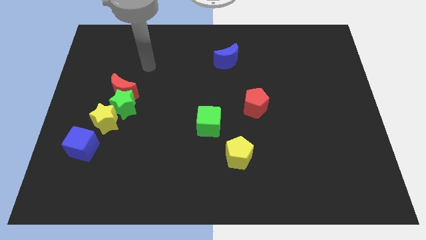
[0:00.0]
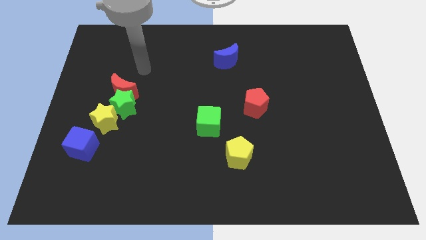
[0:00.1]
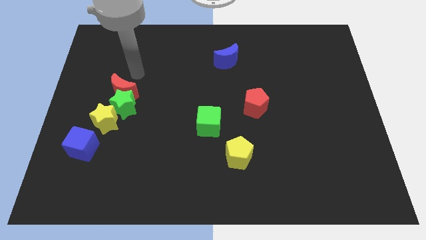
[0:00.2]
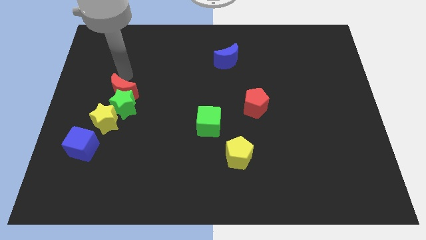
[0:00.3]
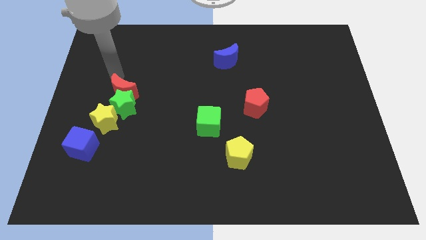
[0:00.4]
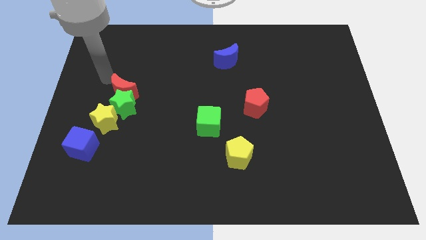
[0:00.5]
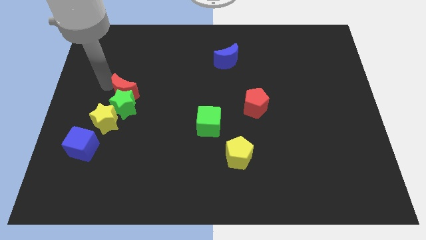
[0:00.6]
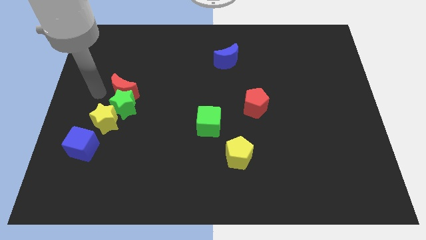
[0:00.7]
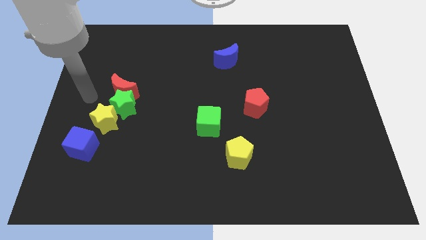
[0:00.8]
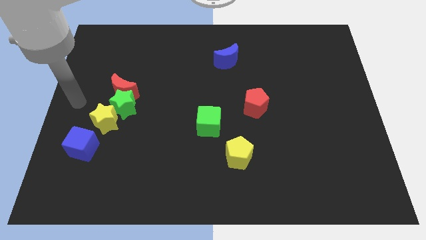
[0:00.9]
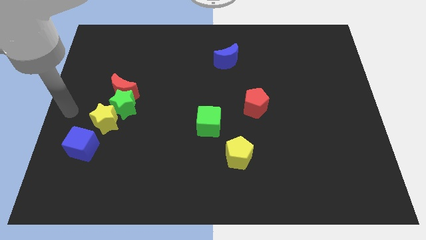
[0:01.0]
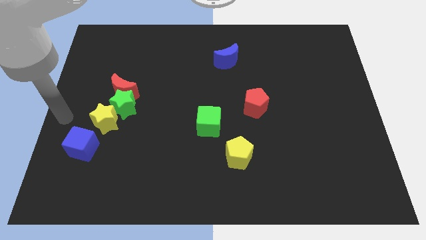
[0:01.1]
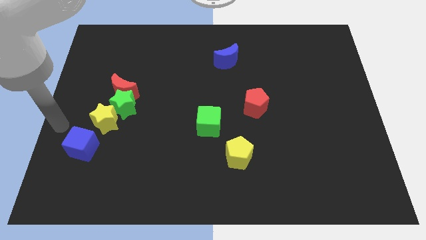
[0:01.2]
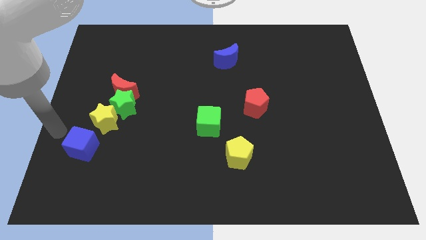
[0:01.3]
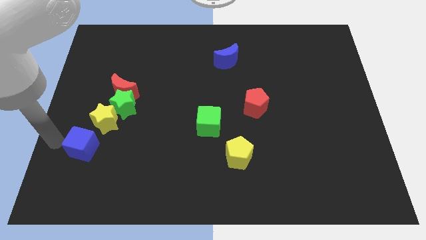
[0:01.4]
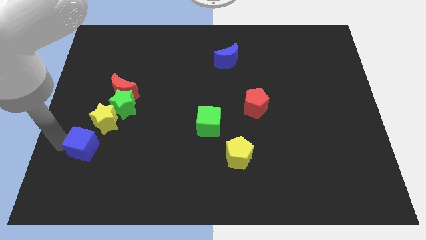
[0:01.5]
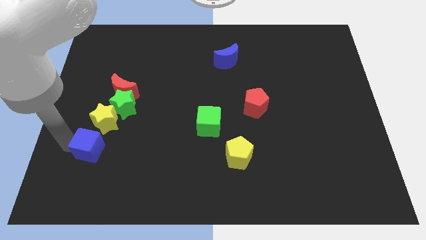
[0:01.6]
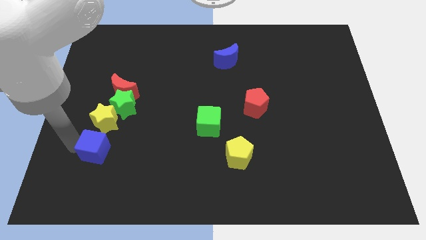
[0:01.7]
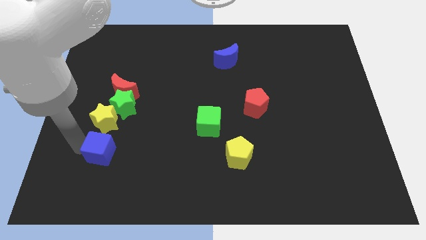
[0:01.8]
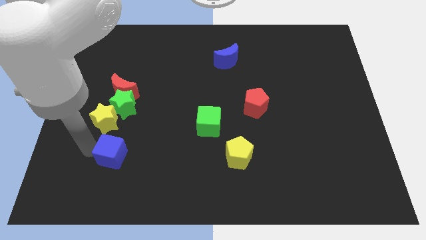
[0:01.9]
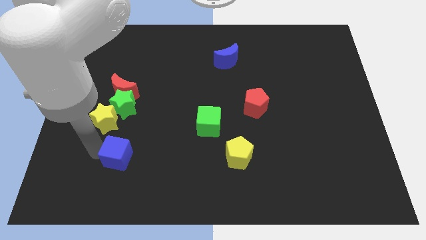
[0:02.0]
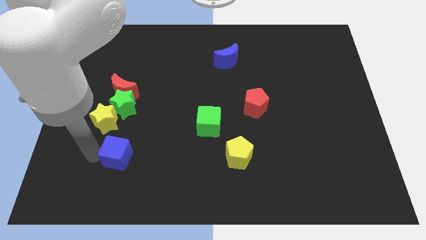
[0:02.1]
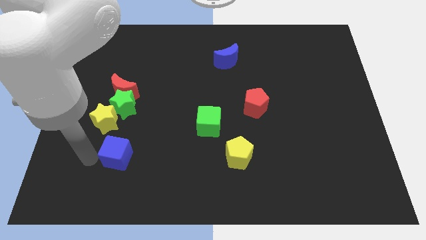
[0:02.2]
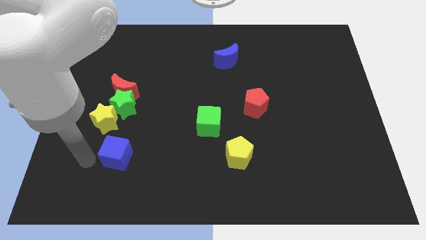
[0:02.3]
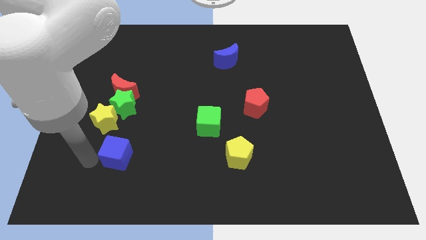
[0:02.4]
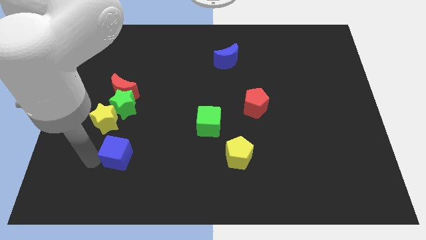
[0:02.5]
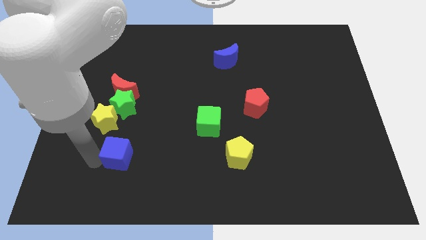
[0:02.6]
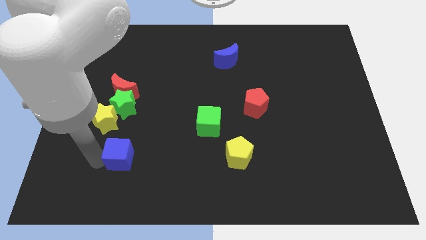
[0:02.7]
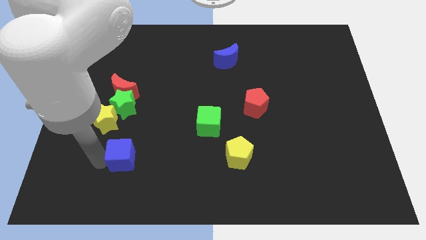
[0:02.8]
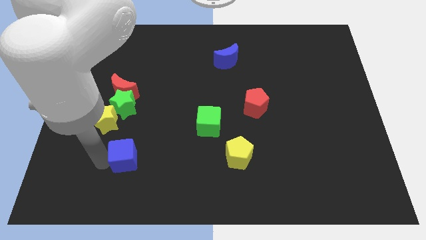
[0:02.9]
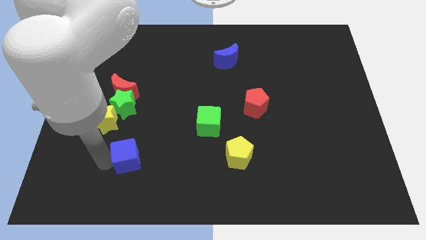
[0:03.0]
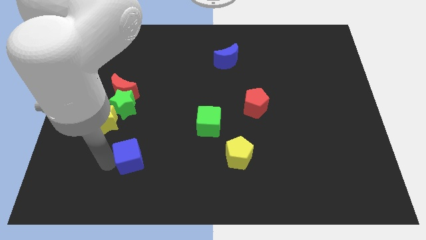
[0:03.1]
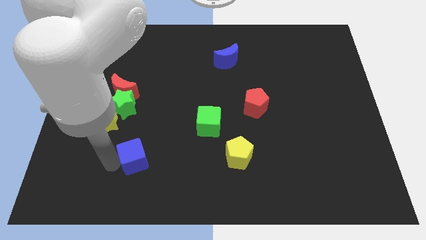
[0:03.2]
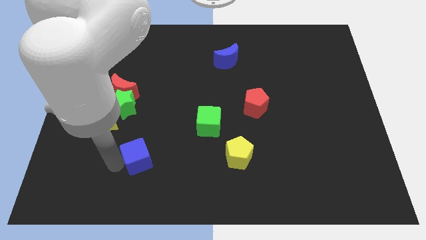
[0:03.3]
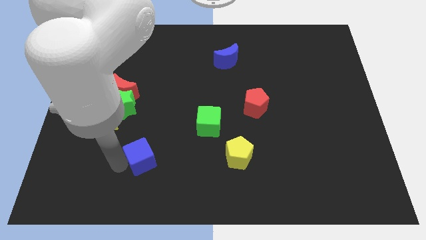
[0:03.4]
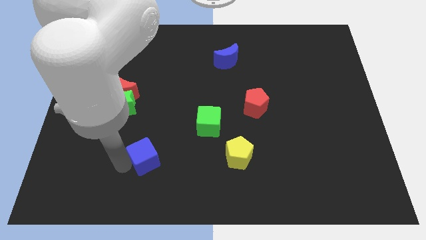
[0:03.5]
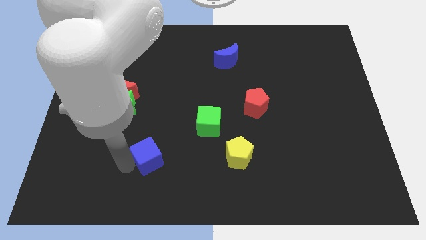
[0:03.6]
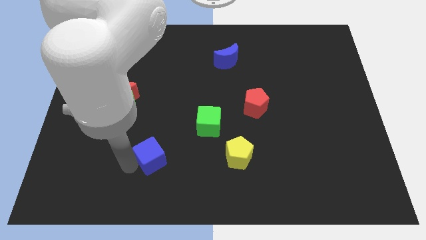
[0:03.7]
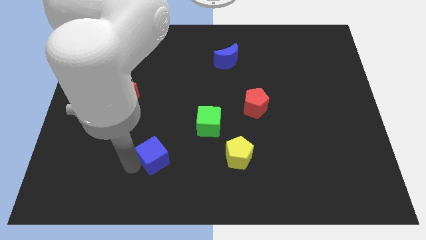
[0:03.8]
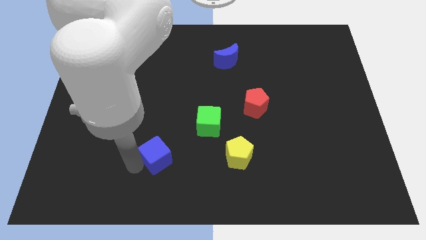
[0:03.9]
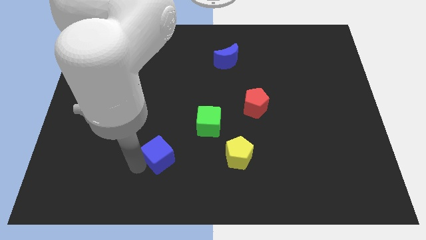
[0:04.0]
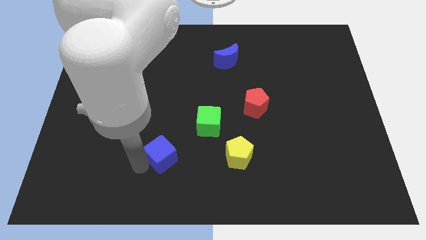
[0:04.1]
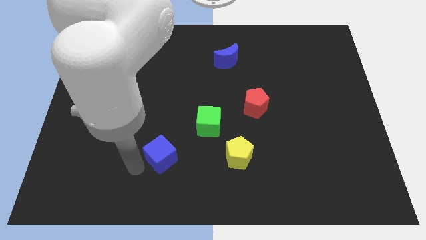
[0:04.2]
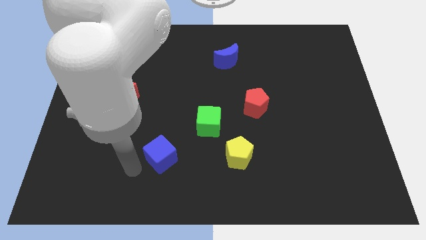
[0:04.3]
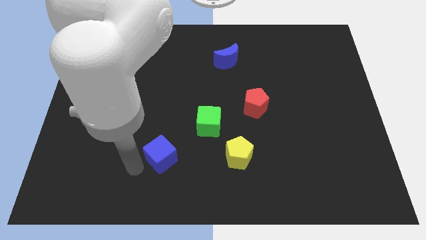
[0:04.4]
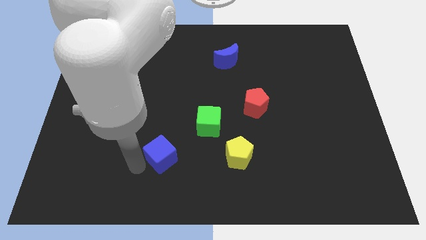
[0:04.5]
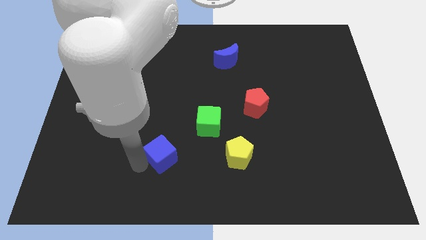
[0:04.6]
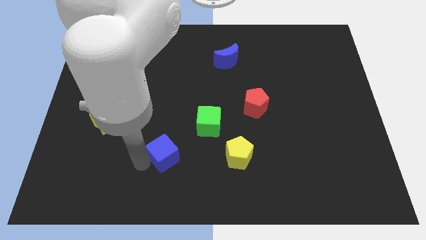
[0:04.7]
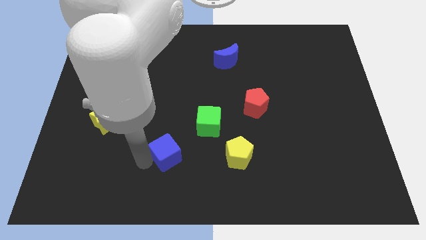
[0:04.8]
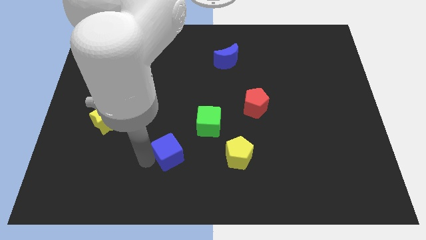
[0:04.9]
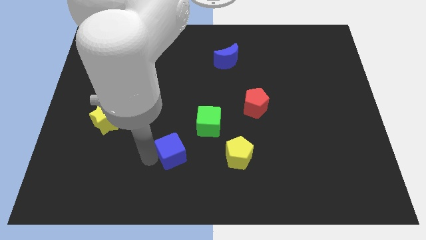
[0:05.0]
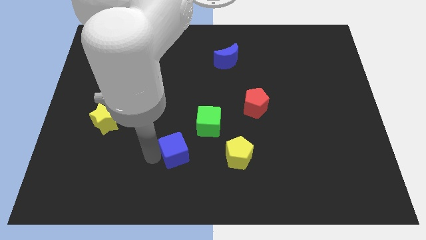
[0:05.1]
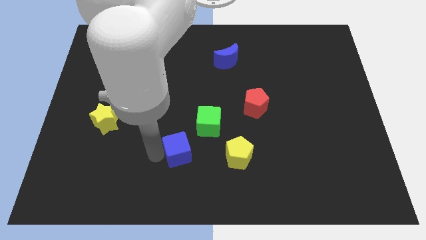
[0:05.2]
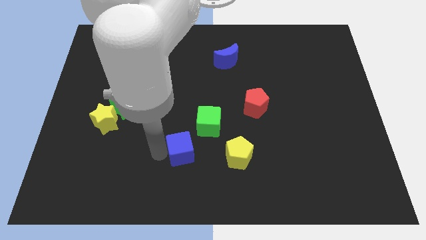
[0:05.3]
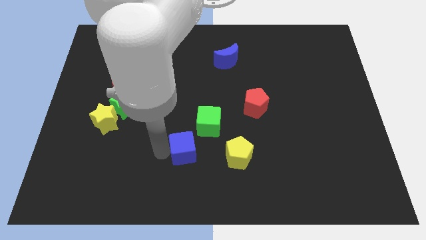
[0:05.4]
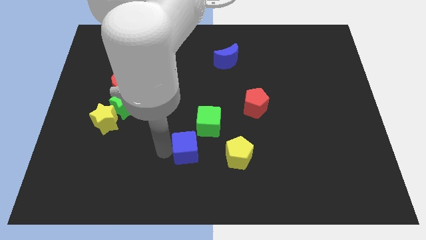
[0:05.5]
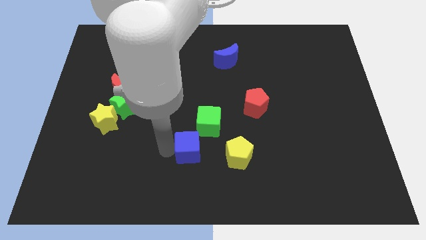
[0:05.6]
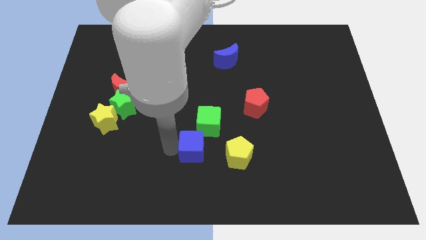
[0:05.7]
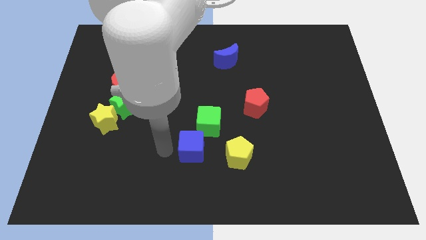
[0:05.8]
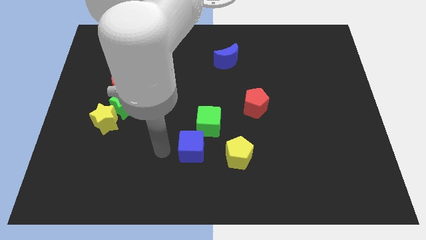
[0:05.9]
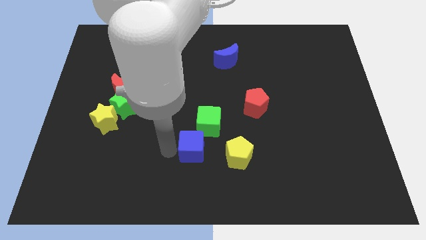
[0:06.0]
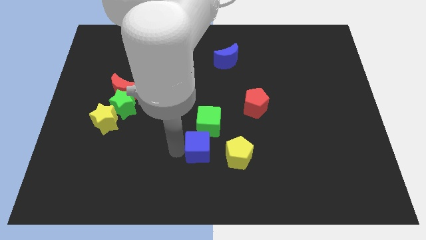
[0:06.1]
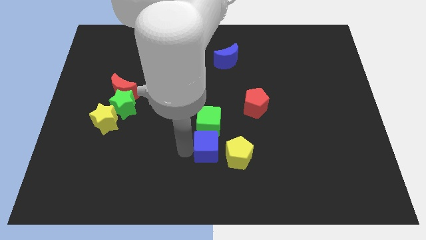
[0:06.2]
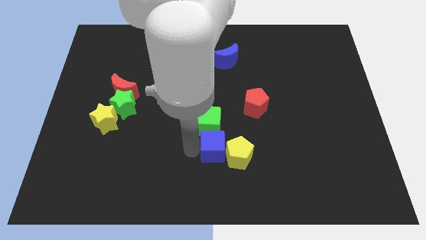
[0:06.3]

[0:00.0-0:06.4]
move the blue cube next to the yellow pentagon

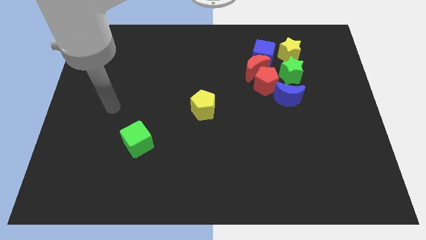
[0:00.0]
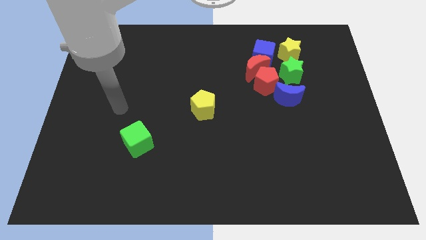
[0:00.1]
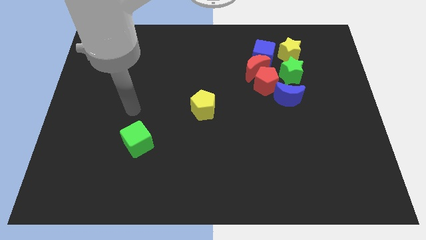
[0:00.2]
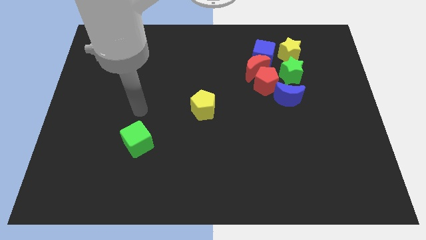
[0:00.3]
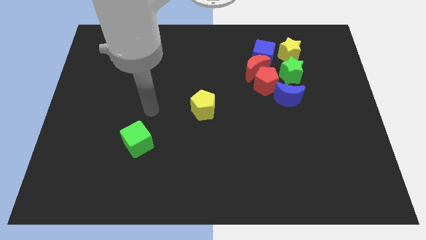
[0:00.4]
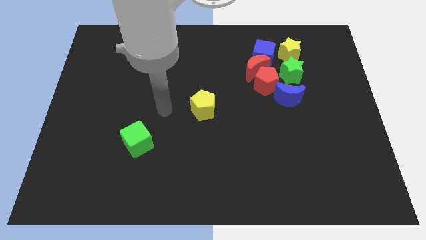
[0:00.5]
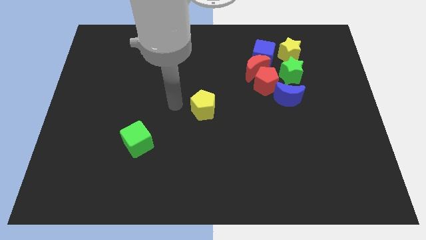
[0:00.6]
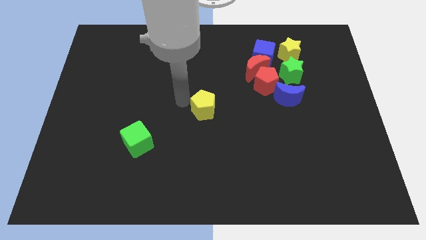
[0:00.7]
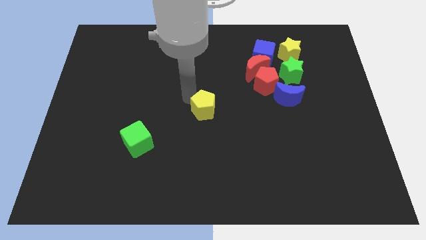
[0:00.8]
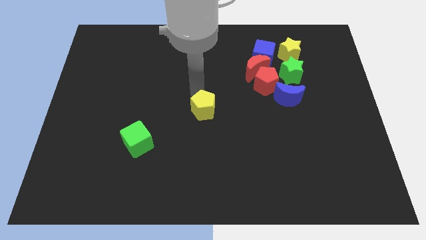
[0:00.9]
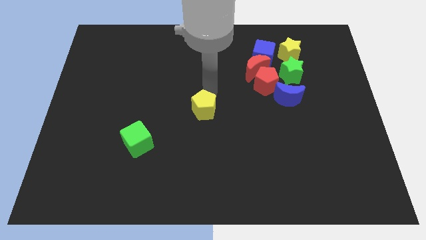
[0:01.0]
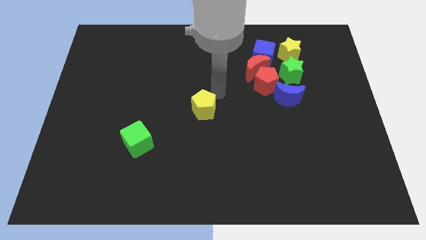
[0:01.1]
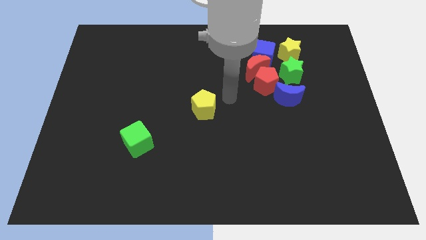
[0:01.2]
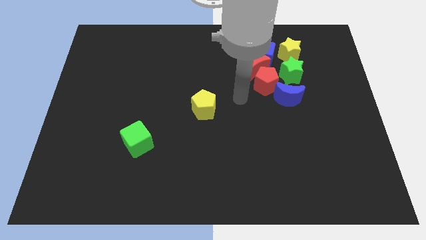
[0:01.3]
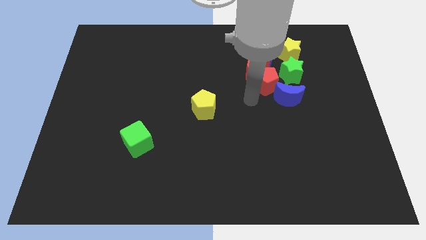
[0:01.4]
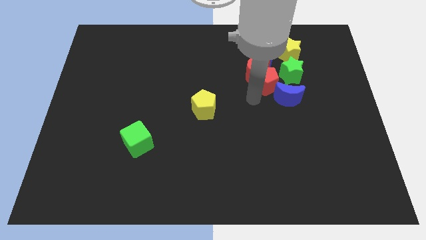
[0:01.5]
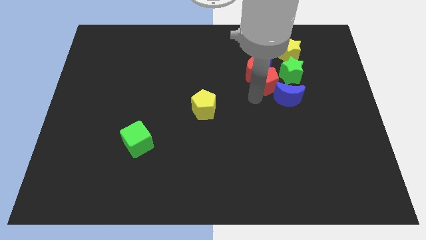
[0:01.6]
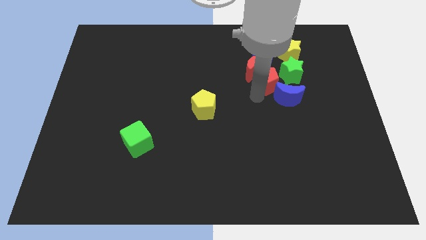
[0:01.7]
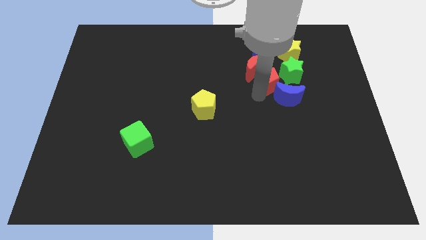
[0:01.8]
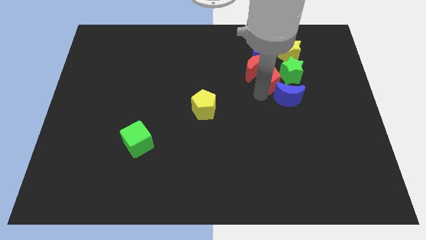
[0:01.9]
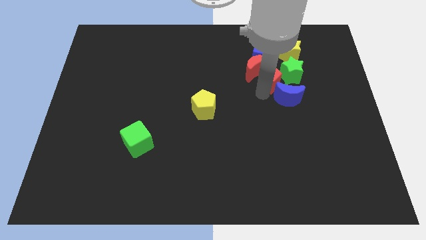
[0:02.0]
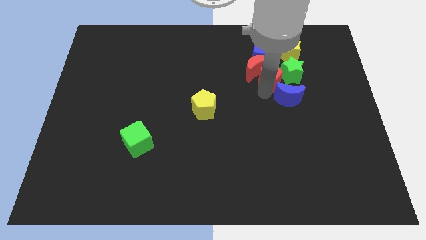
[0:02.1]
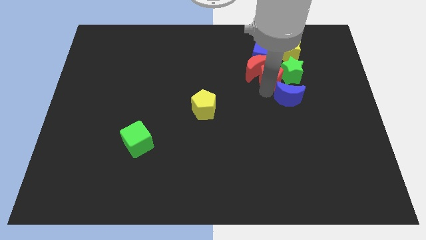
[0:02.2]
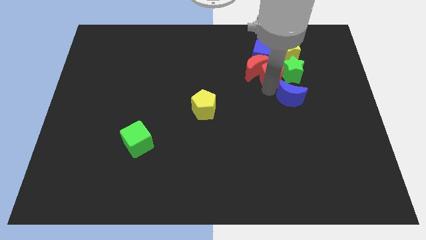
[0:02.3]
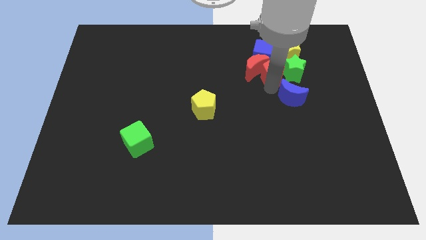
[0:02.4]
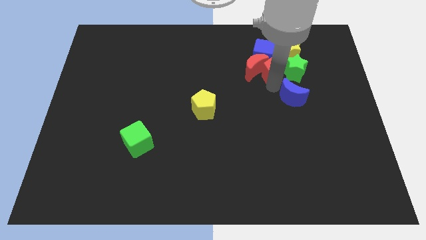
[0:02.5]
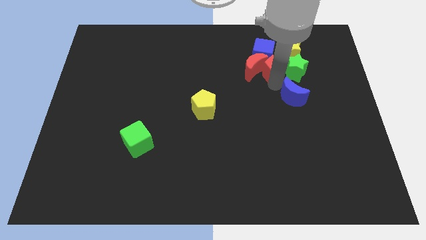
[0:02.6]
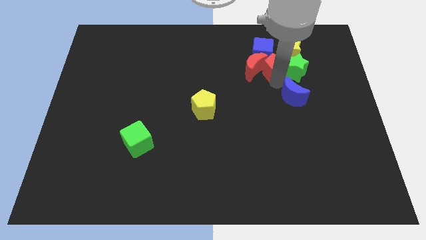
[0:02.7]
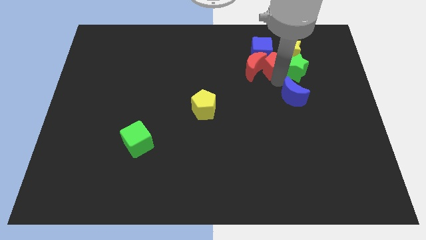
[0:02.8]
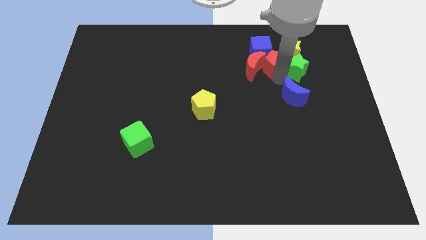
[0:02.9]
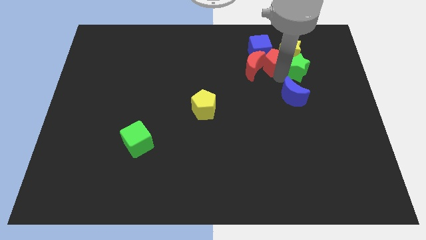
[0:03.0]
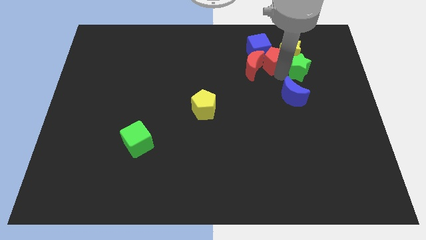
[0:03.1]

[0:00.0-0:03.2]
move the red pentagon towards the blue cube
